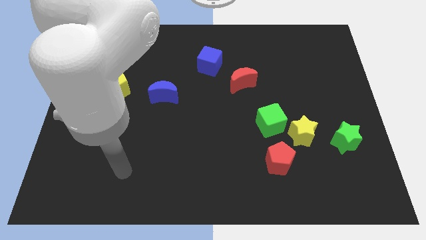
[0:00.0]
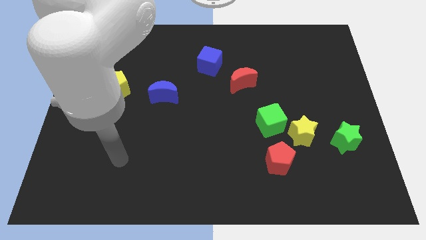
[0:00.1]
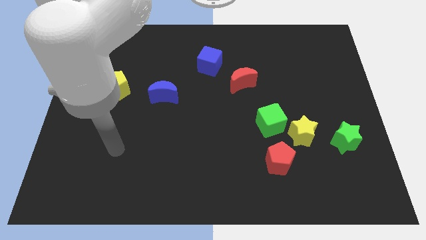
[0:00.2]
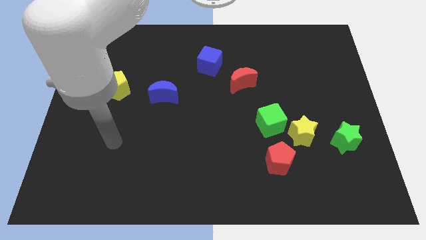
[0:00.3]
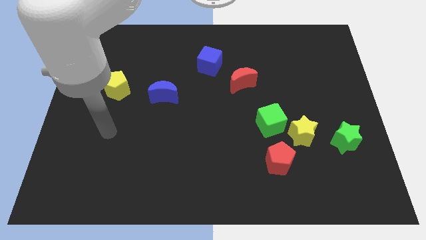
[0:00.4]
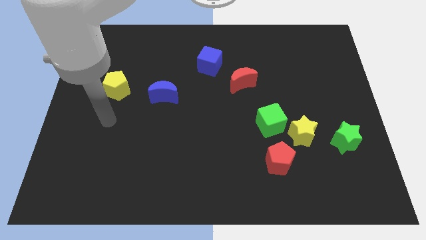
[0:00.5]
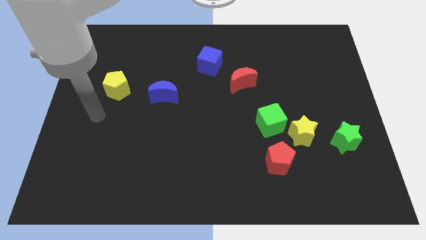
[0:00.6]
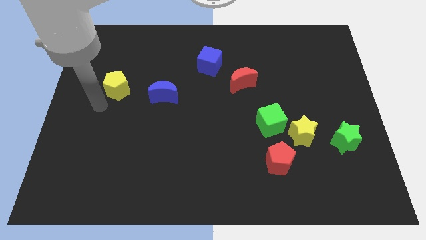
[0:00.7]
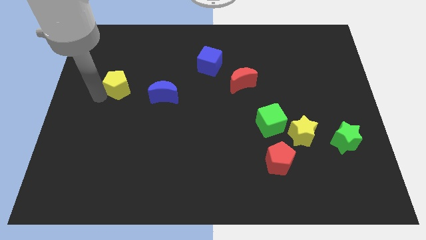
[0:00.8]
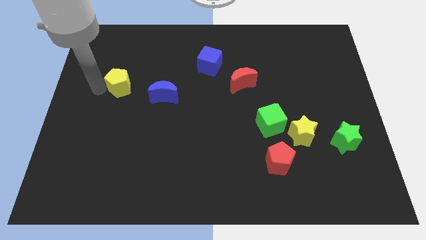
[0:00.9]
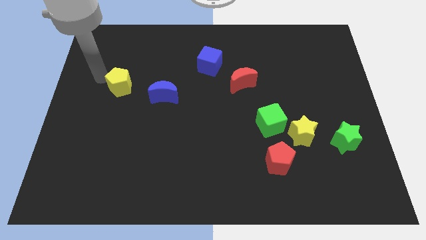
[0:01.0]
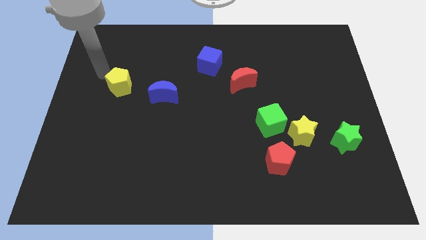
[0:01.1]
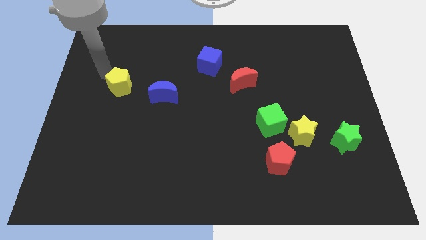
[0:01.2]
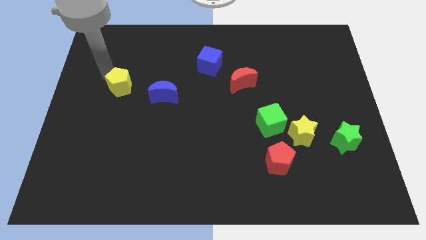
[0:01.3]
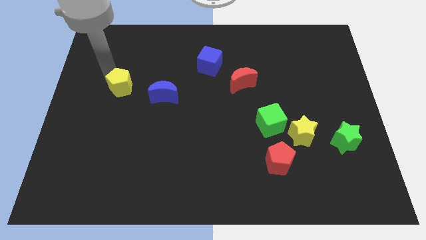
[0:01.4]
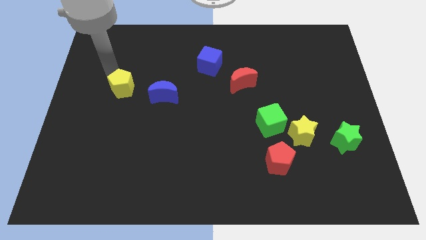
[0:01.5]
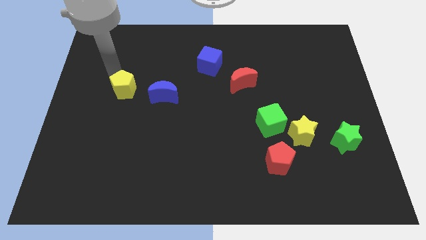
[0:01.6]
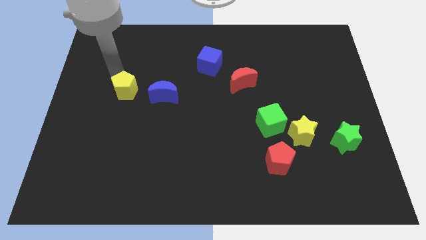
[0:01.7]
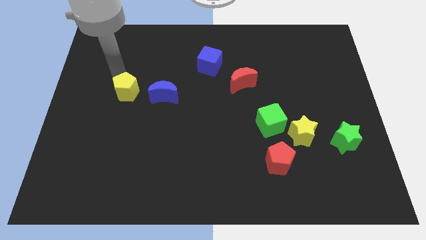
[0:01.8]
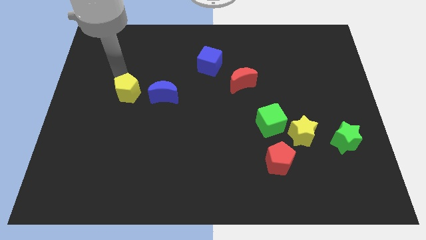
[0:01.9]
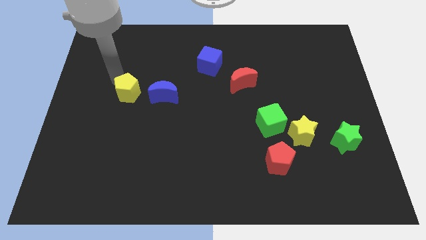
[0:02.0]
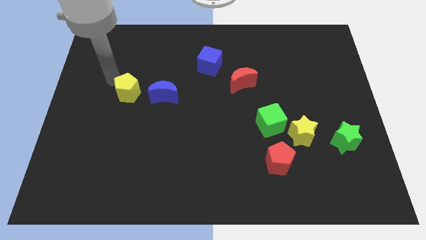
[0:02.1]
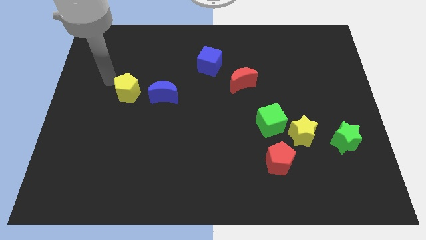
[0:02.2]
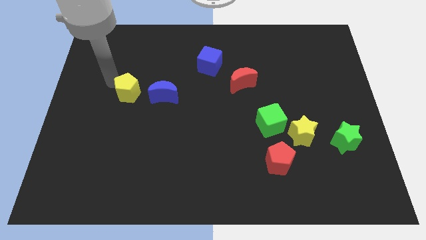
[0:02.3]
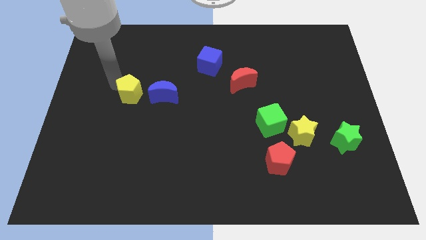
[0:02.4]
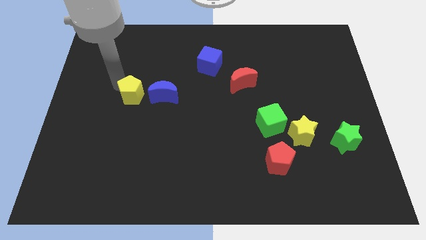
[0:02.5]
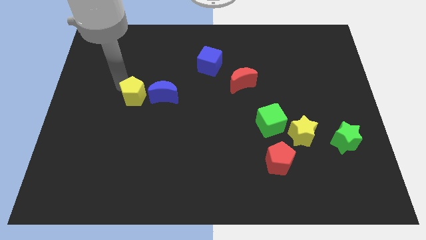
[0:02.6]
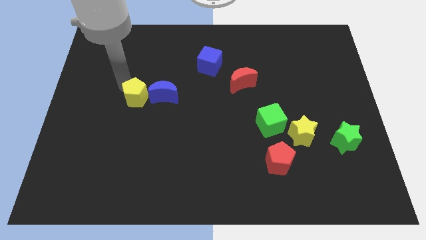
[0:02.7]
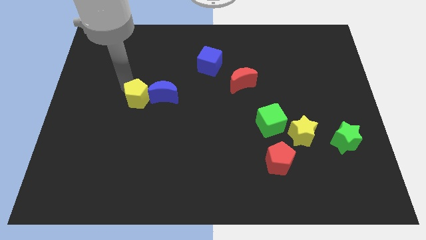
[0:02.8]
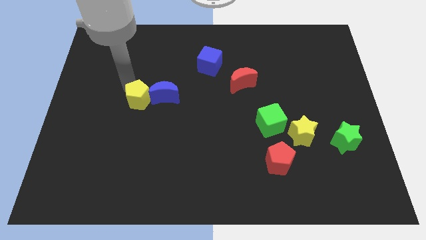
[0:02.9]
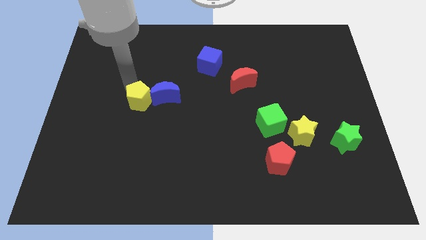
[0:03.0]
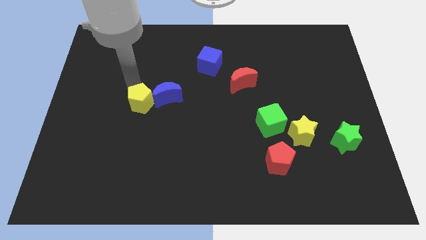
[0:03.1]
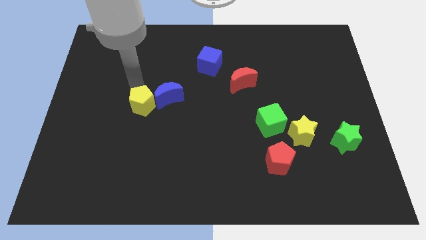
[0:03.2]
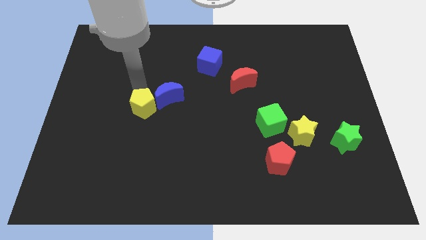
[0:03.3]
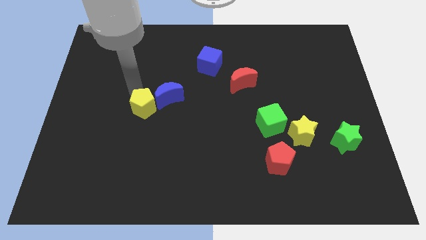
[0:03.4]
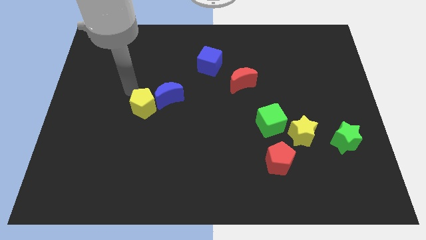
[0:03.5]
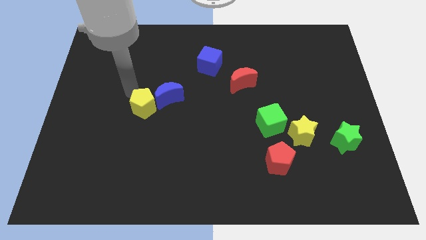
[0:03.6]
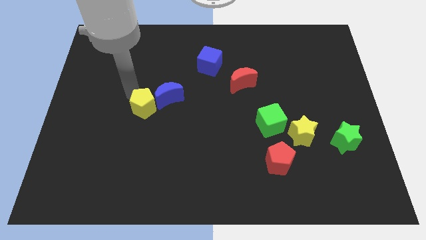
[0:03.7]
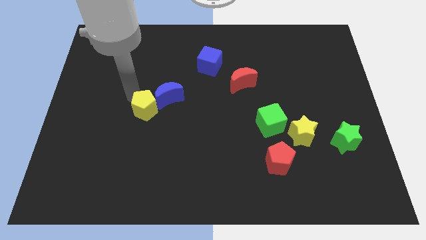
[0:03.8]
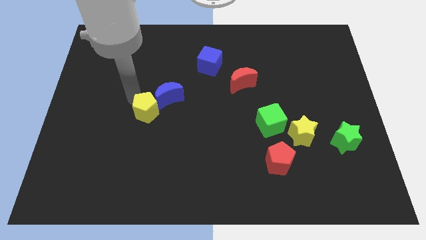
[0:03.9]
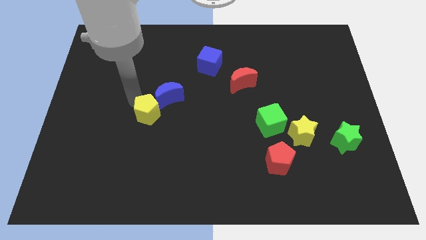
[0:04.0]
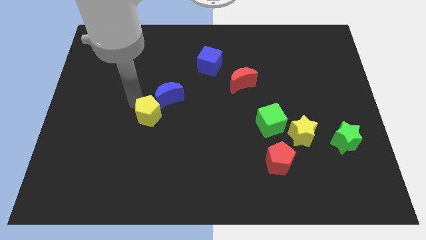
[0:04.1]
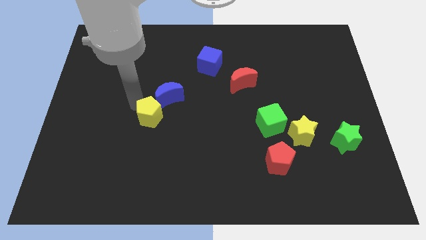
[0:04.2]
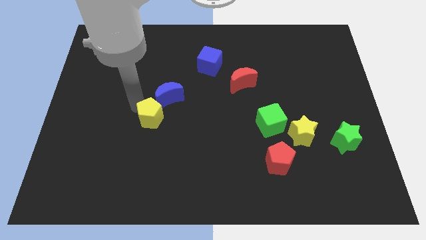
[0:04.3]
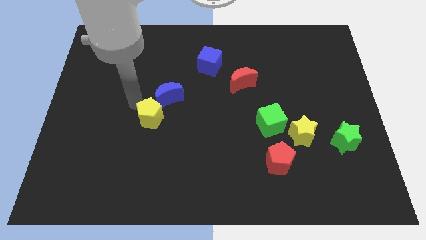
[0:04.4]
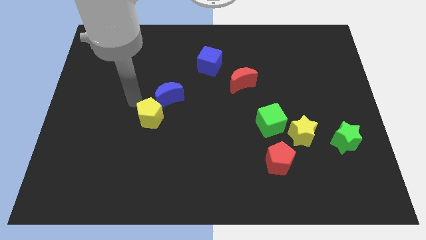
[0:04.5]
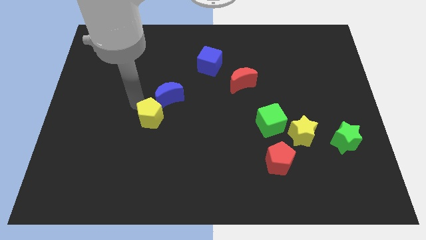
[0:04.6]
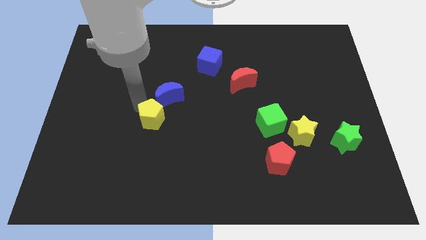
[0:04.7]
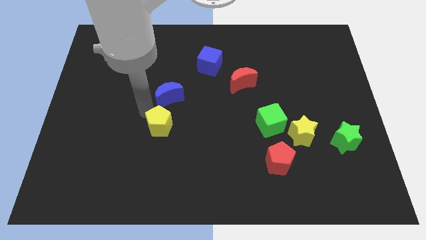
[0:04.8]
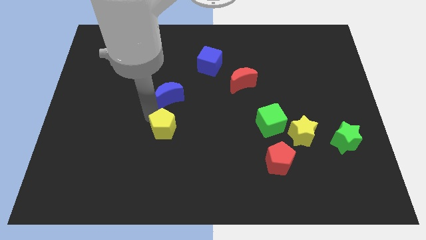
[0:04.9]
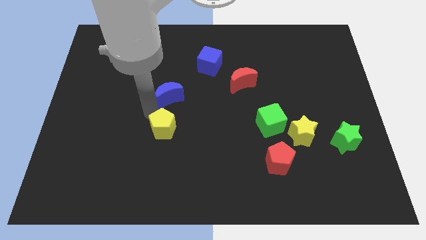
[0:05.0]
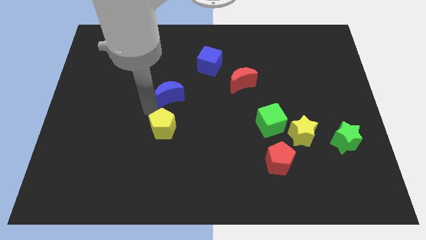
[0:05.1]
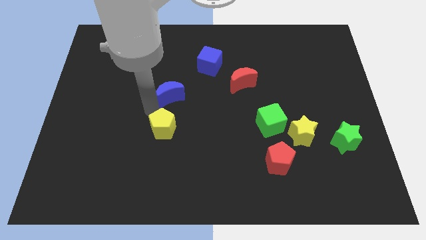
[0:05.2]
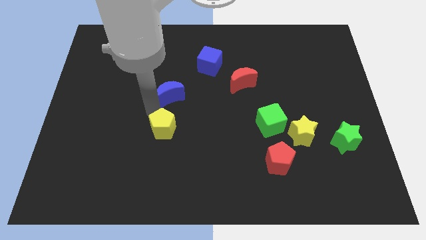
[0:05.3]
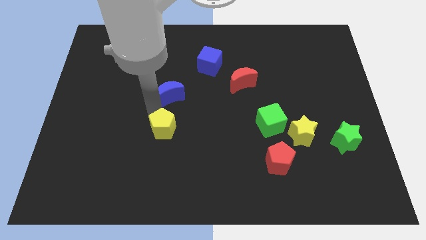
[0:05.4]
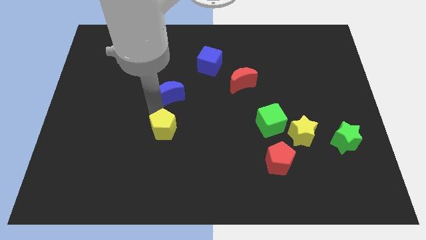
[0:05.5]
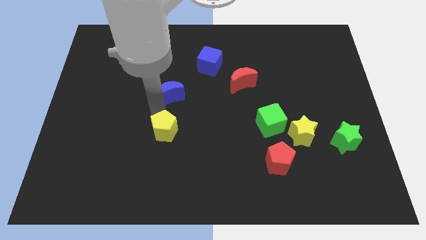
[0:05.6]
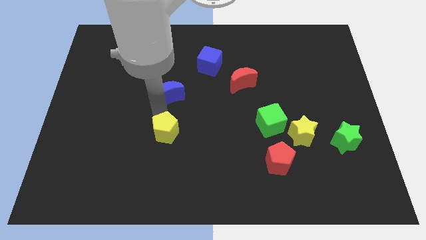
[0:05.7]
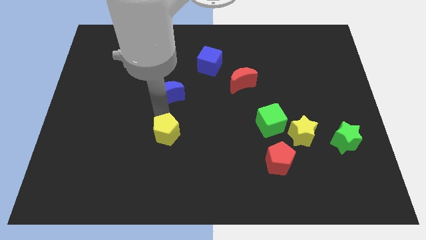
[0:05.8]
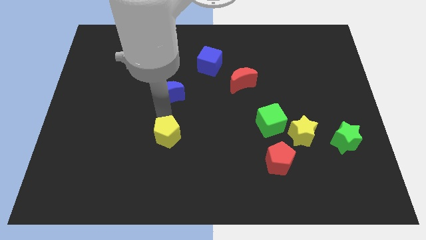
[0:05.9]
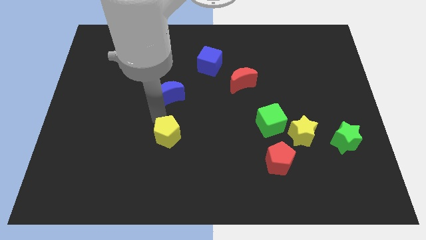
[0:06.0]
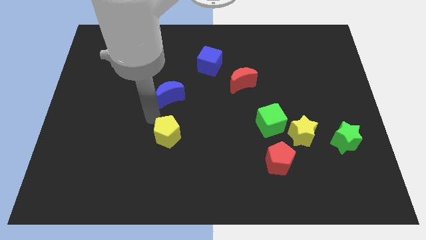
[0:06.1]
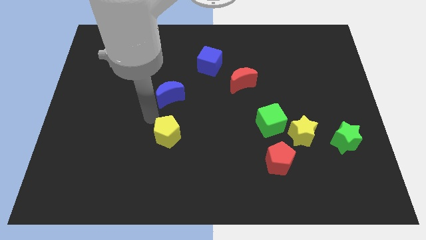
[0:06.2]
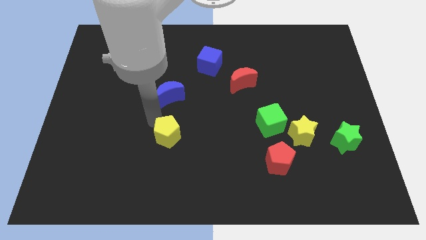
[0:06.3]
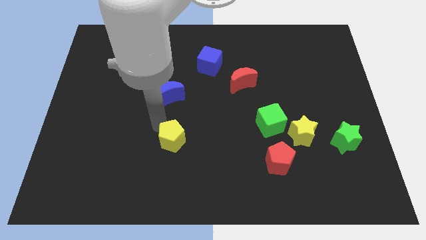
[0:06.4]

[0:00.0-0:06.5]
slide the yellow pentagon down and right diagonally

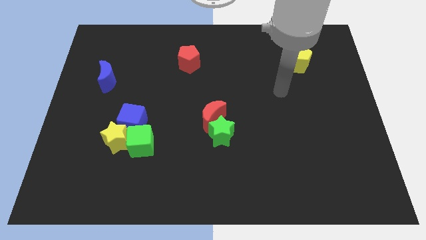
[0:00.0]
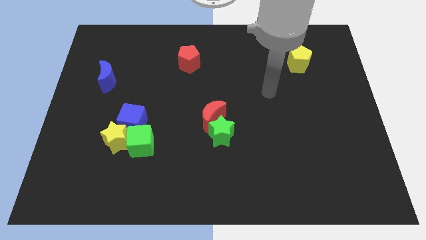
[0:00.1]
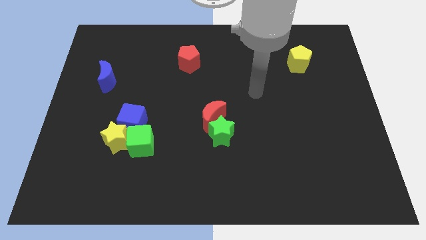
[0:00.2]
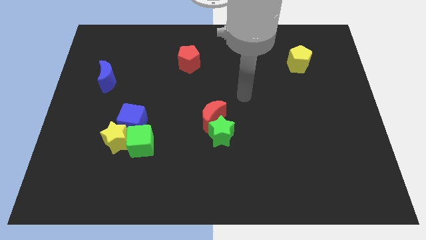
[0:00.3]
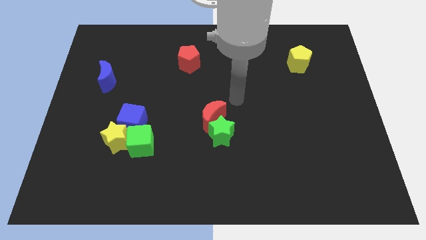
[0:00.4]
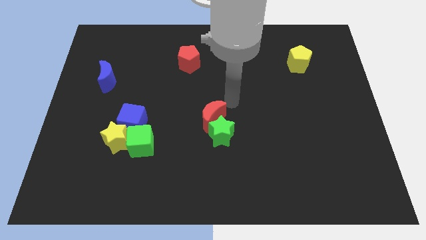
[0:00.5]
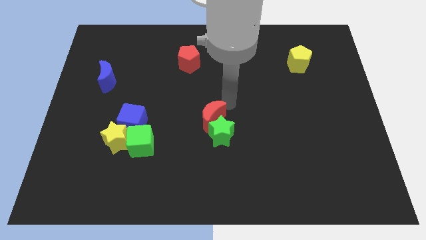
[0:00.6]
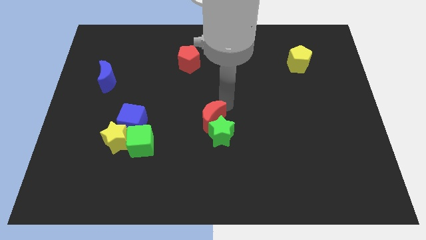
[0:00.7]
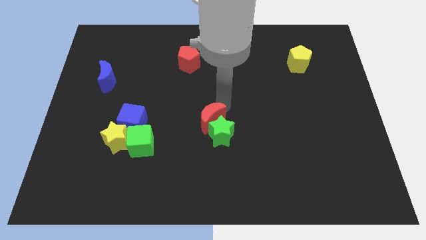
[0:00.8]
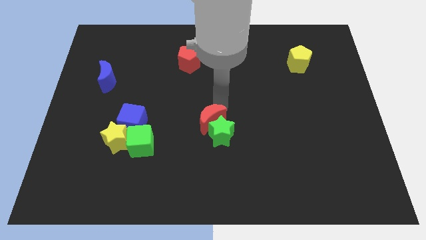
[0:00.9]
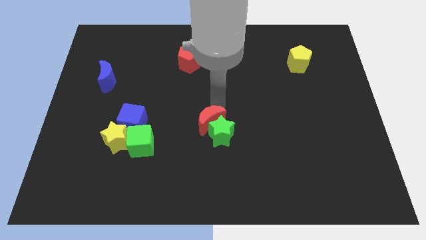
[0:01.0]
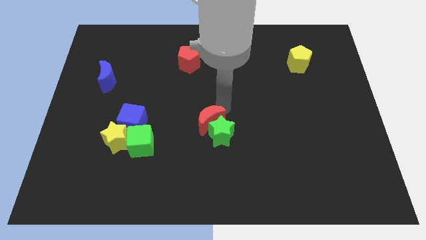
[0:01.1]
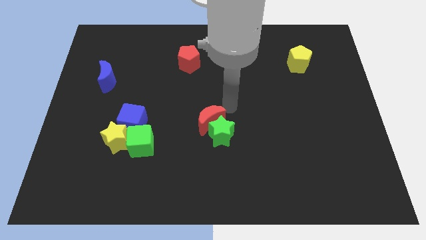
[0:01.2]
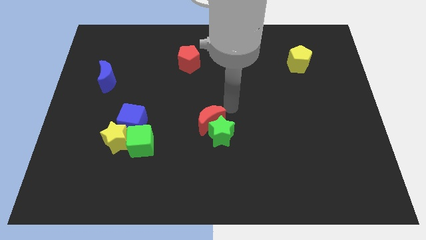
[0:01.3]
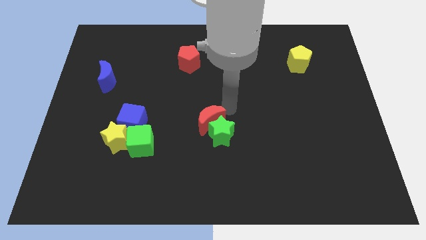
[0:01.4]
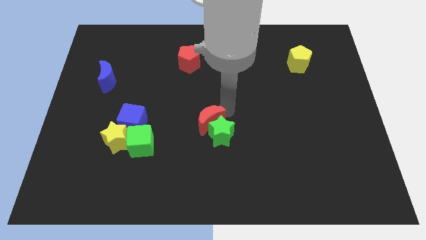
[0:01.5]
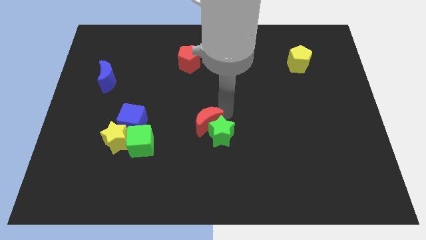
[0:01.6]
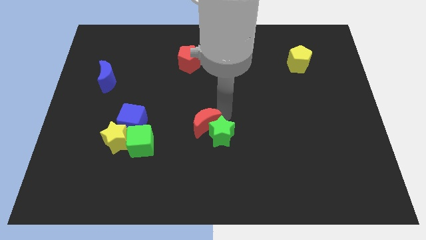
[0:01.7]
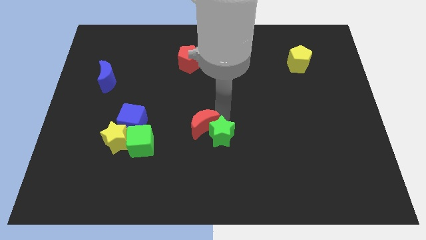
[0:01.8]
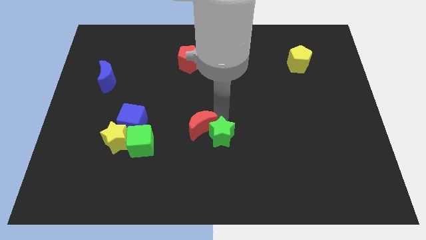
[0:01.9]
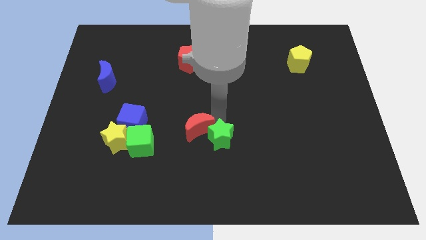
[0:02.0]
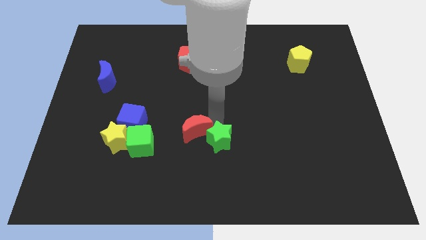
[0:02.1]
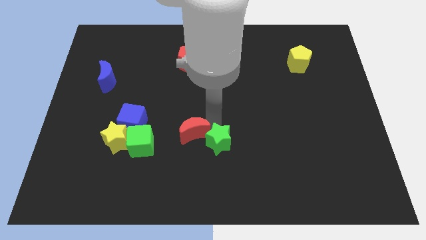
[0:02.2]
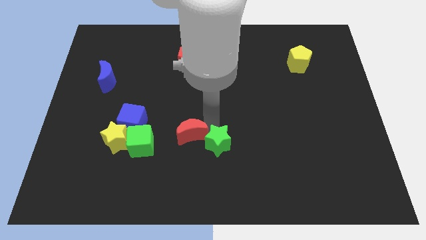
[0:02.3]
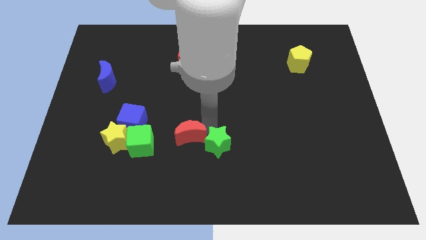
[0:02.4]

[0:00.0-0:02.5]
slightly push the red moon downwards and to the left
